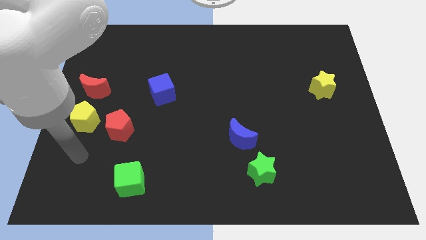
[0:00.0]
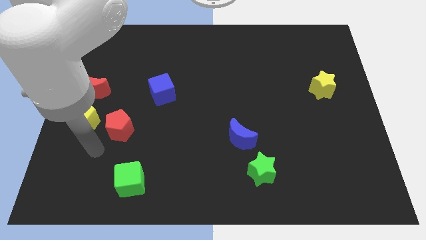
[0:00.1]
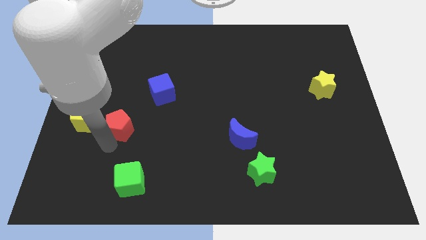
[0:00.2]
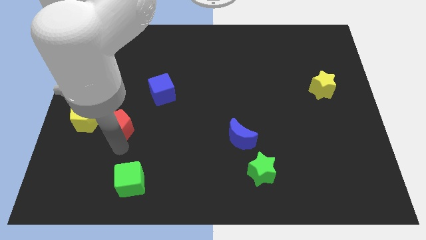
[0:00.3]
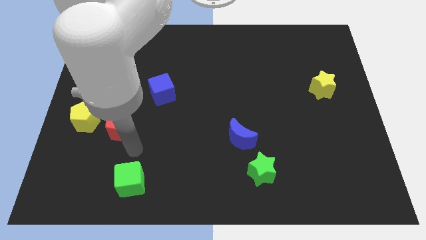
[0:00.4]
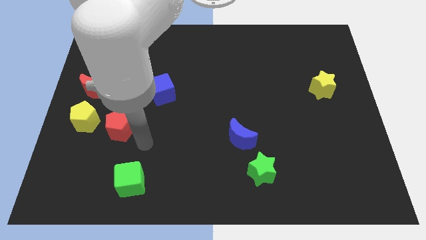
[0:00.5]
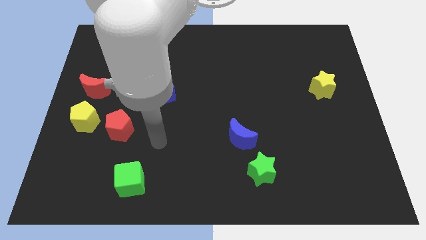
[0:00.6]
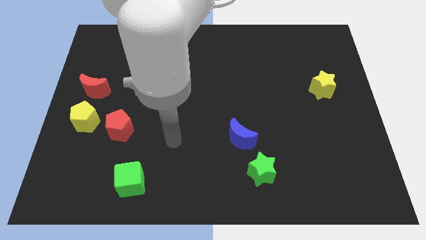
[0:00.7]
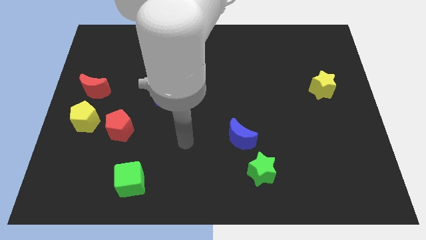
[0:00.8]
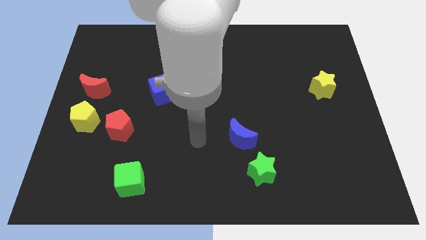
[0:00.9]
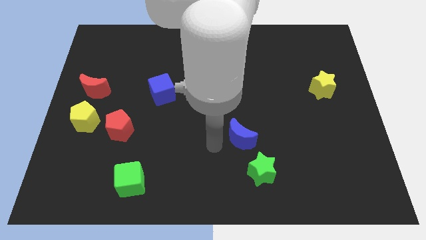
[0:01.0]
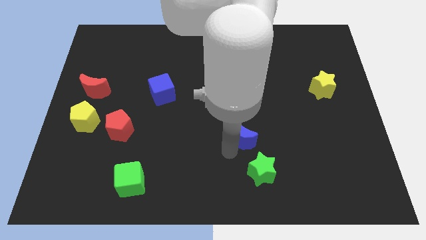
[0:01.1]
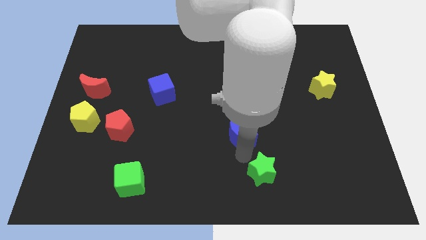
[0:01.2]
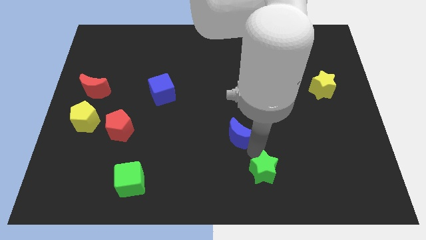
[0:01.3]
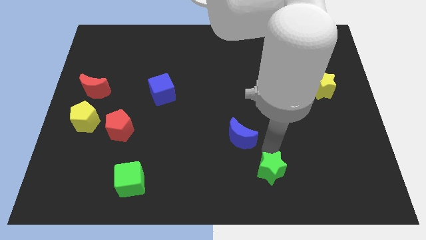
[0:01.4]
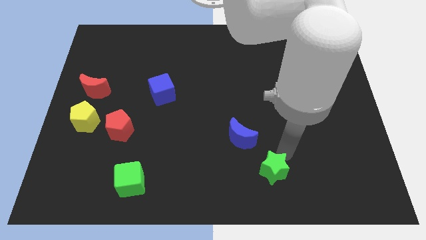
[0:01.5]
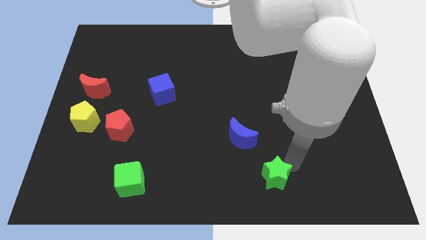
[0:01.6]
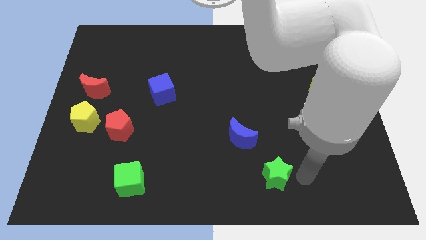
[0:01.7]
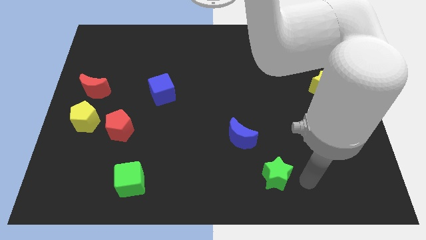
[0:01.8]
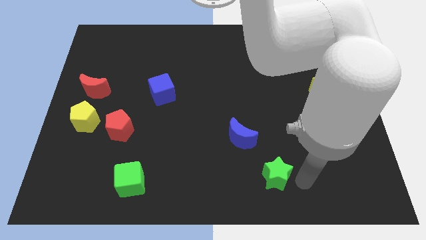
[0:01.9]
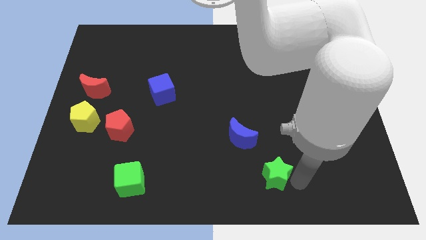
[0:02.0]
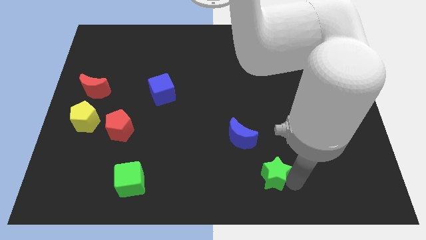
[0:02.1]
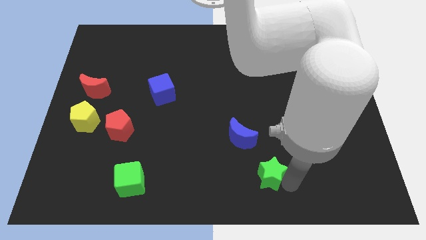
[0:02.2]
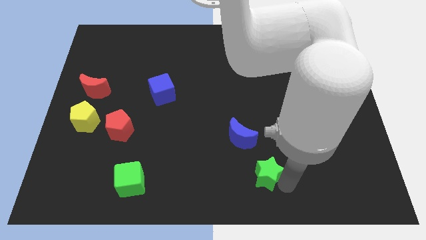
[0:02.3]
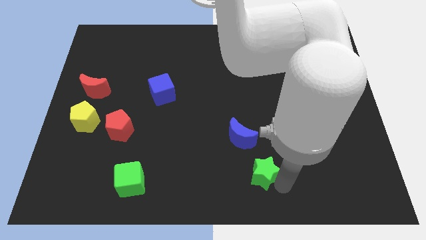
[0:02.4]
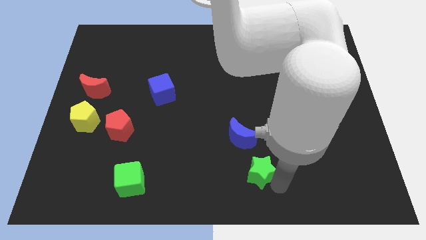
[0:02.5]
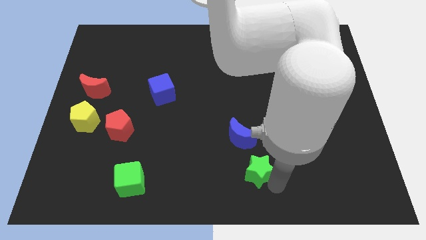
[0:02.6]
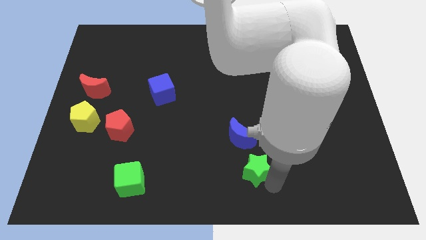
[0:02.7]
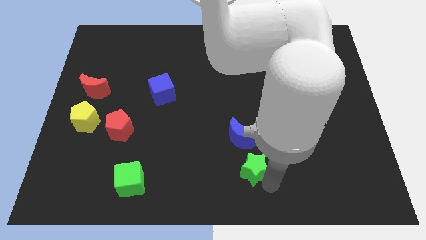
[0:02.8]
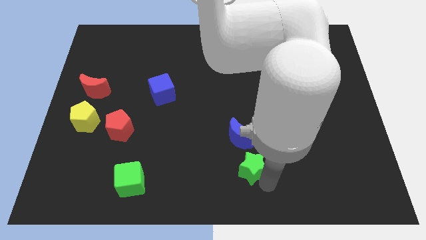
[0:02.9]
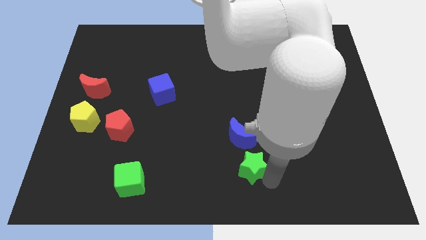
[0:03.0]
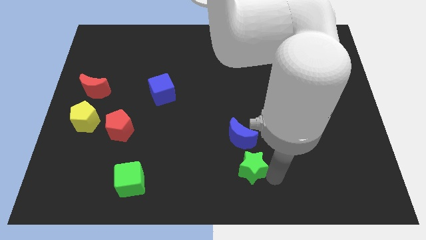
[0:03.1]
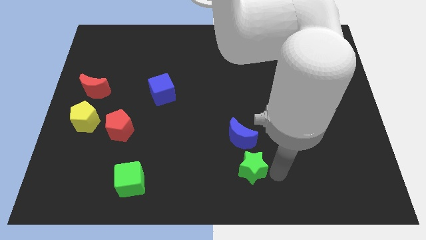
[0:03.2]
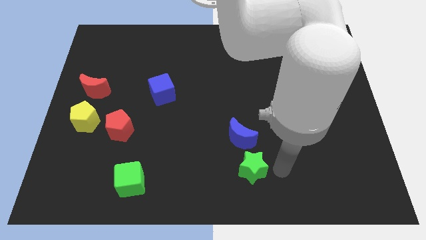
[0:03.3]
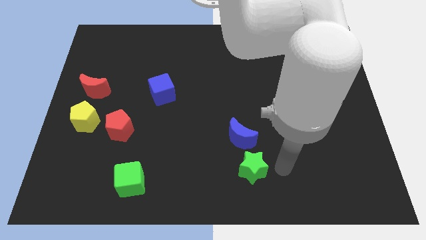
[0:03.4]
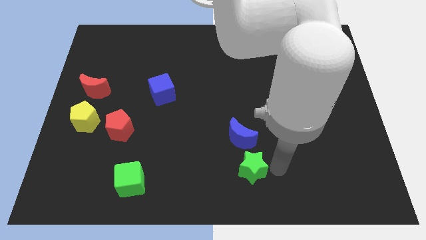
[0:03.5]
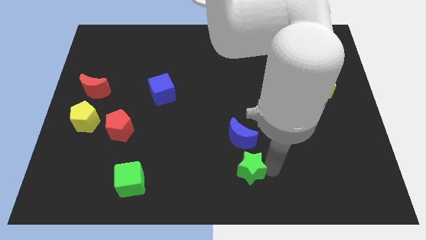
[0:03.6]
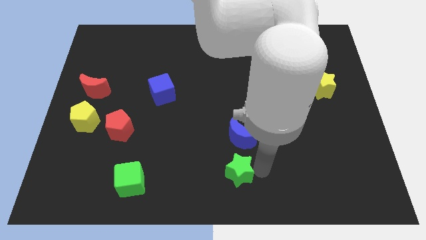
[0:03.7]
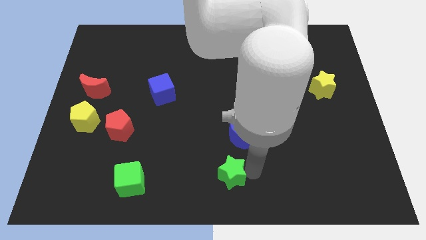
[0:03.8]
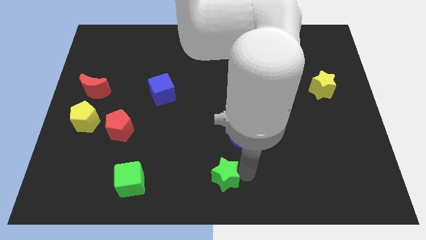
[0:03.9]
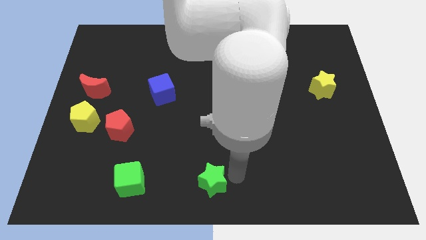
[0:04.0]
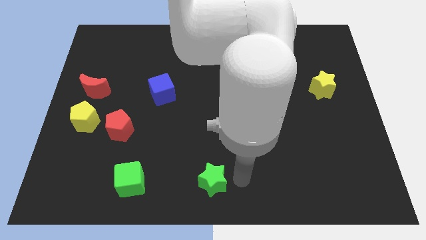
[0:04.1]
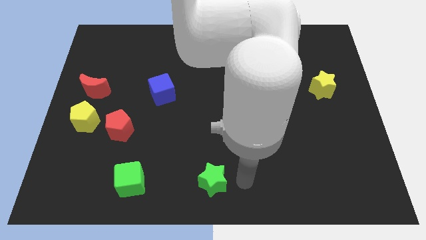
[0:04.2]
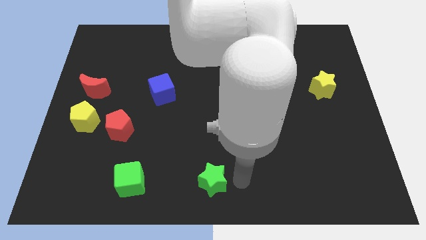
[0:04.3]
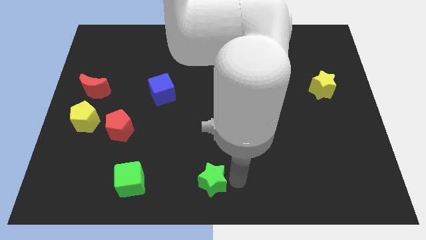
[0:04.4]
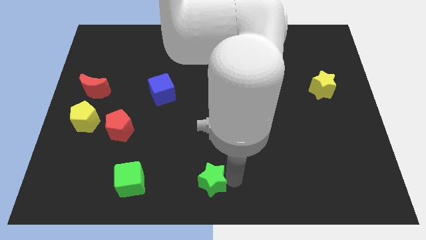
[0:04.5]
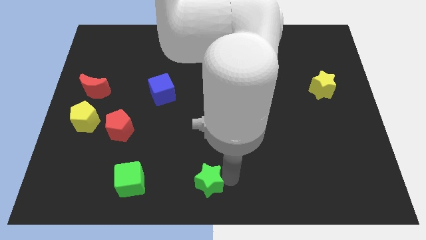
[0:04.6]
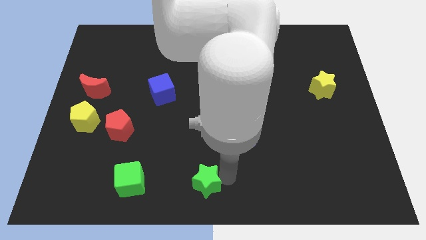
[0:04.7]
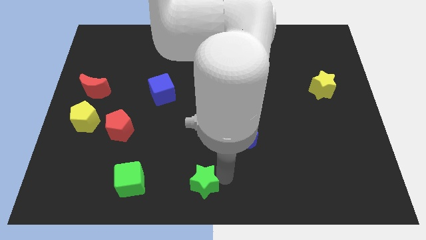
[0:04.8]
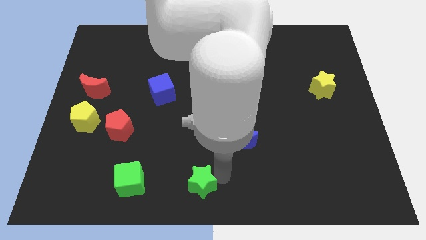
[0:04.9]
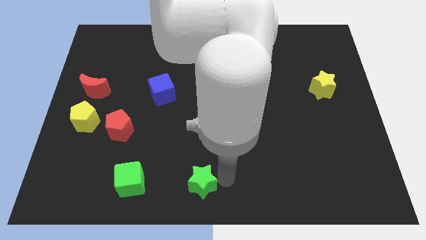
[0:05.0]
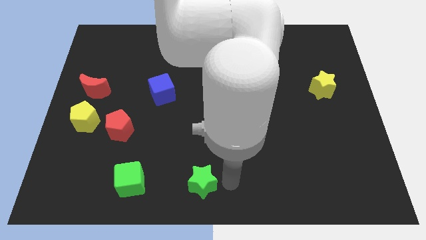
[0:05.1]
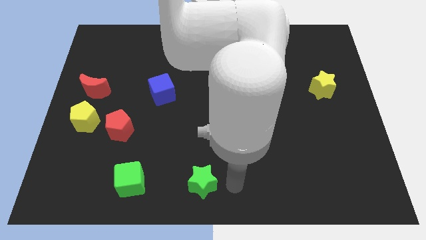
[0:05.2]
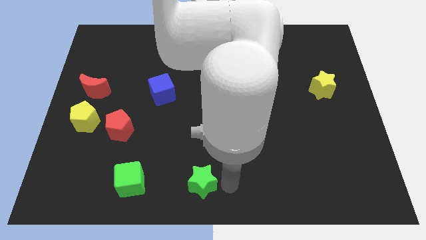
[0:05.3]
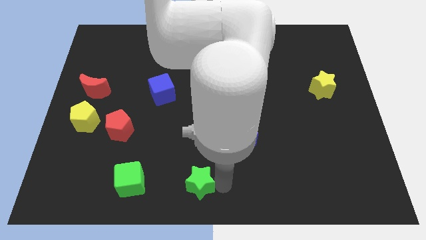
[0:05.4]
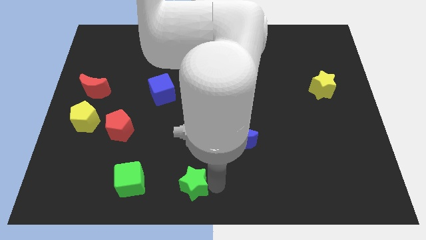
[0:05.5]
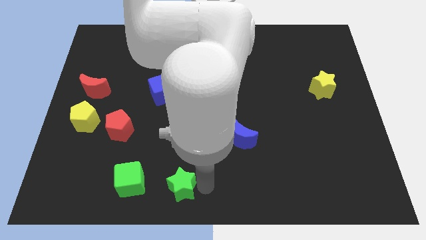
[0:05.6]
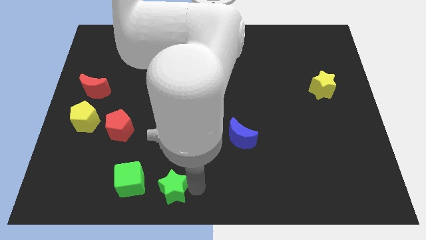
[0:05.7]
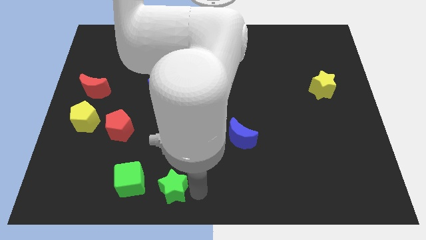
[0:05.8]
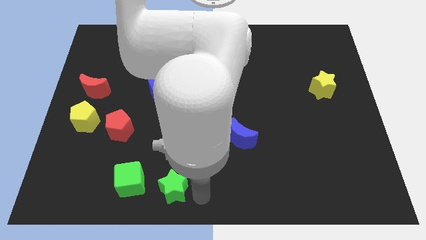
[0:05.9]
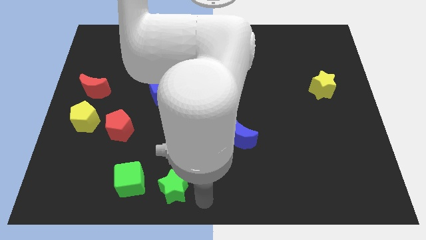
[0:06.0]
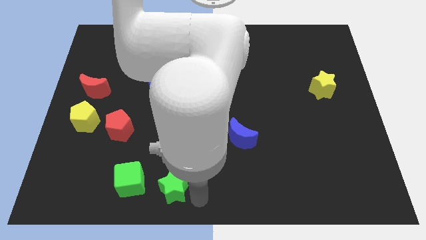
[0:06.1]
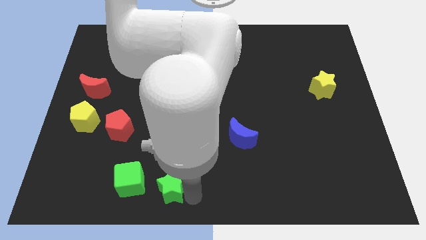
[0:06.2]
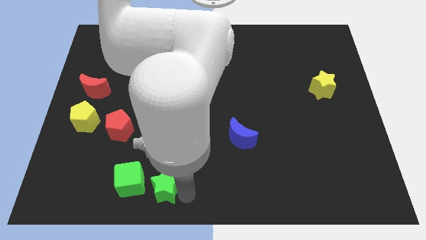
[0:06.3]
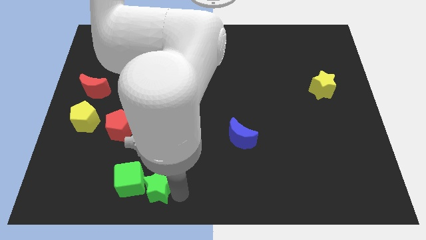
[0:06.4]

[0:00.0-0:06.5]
put the green star next to the green cube

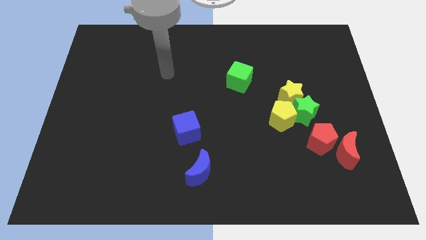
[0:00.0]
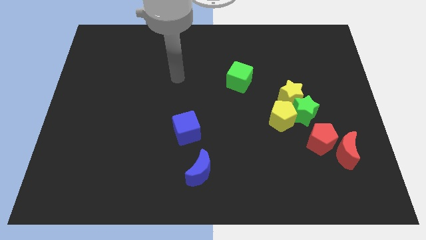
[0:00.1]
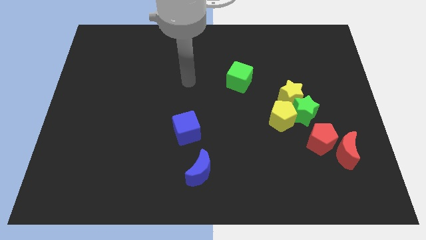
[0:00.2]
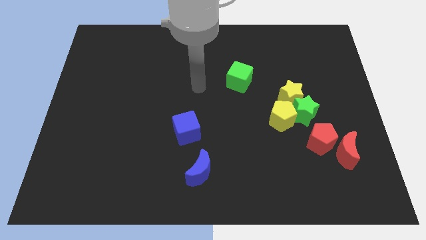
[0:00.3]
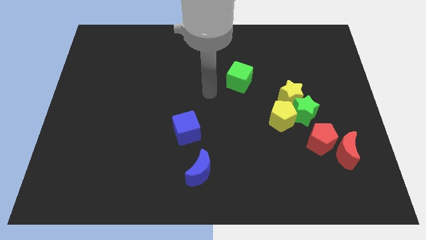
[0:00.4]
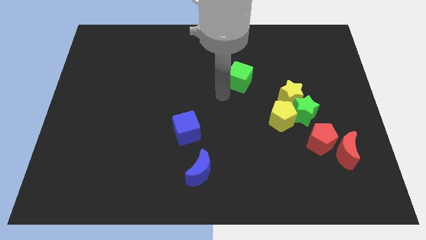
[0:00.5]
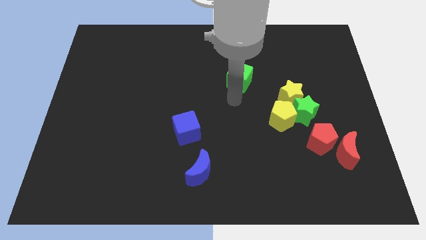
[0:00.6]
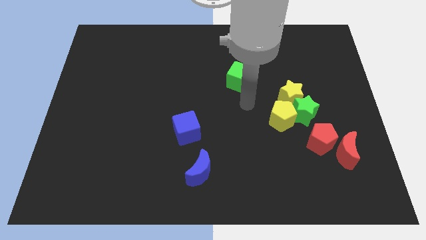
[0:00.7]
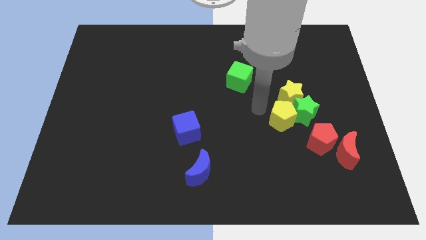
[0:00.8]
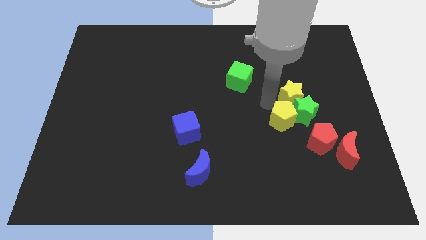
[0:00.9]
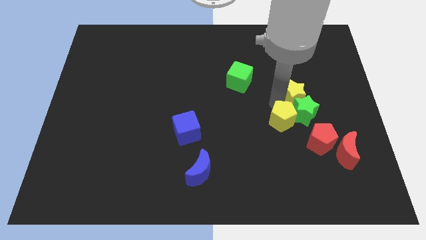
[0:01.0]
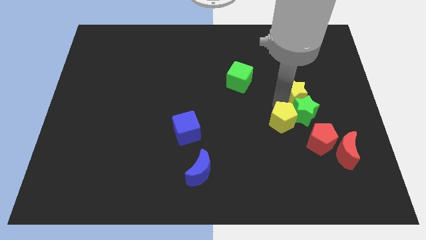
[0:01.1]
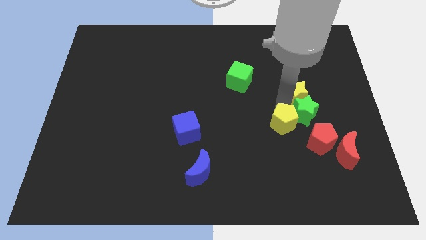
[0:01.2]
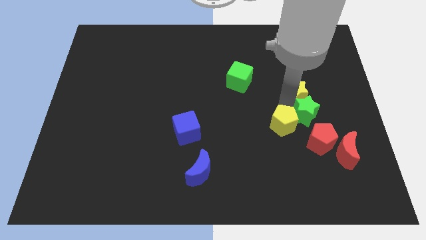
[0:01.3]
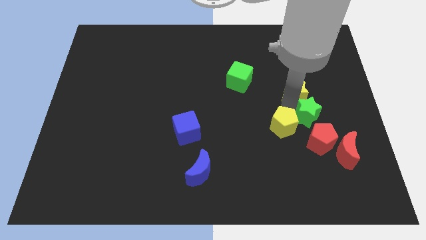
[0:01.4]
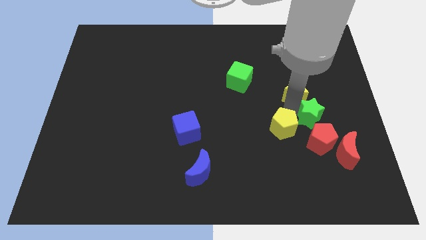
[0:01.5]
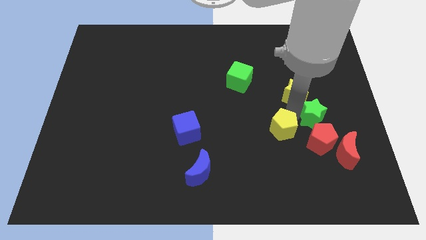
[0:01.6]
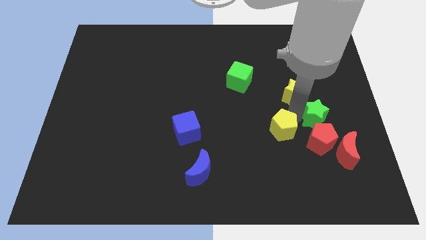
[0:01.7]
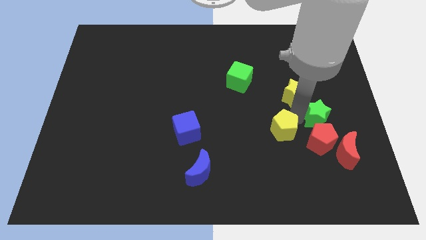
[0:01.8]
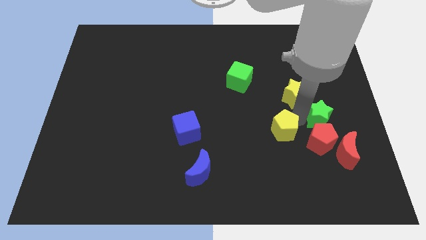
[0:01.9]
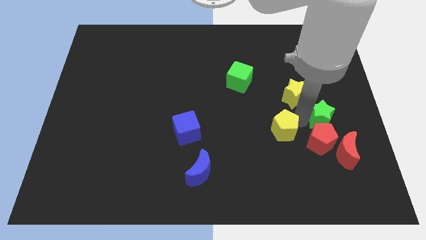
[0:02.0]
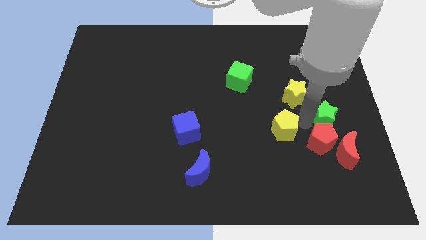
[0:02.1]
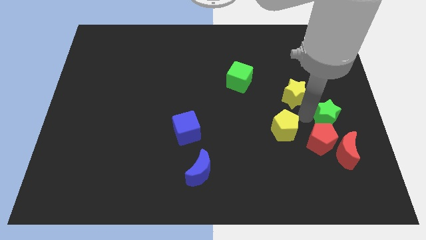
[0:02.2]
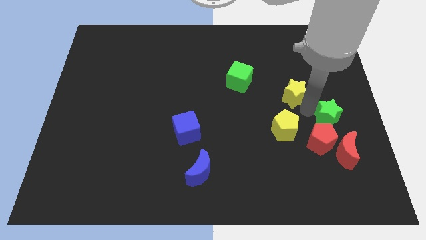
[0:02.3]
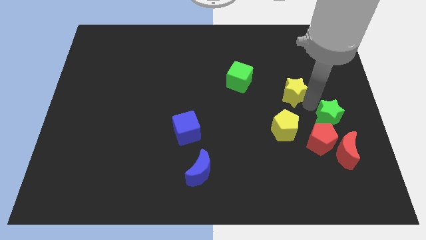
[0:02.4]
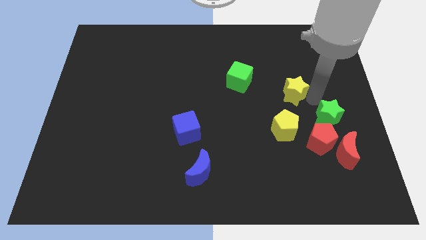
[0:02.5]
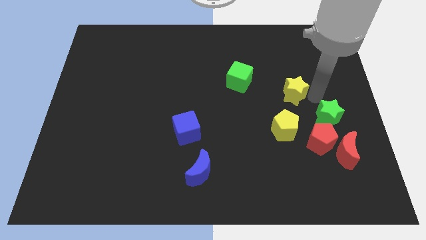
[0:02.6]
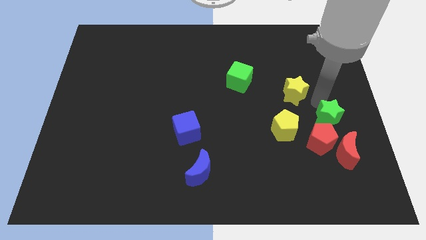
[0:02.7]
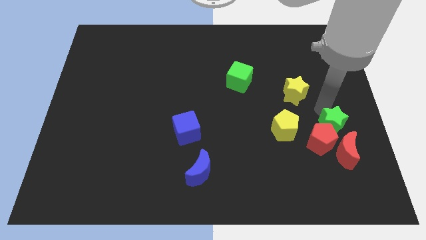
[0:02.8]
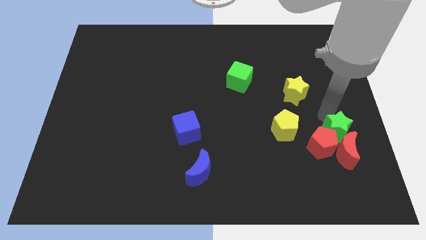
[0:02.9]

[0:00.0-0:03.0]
push the green star close to the red moon
